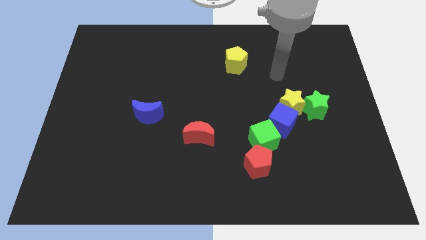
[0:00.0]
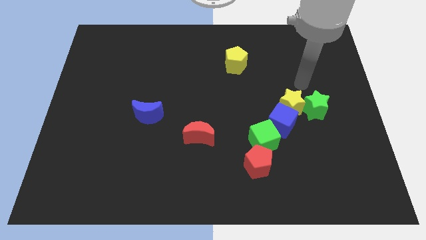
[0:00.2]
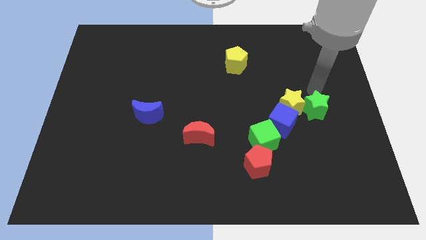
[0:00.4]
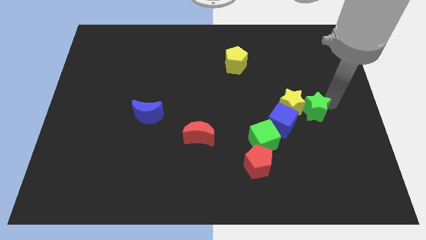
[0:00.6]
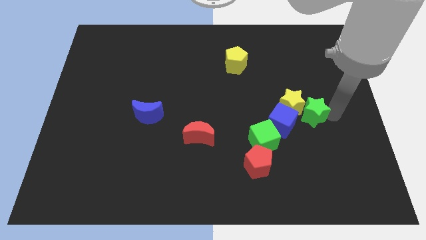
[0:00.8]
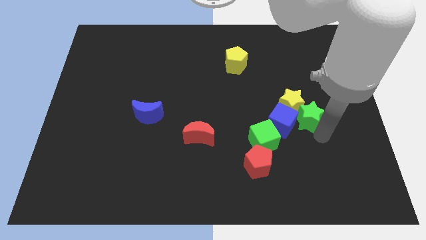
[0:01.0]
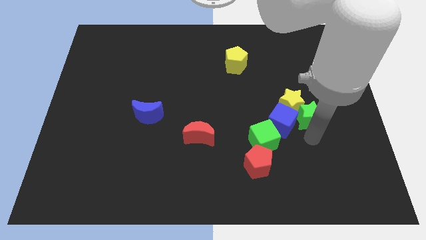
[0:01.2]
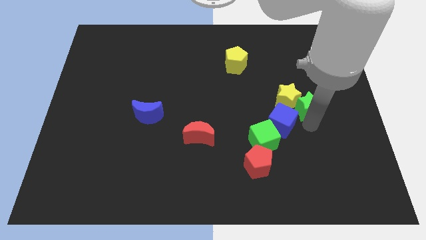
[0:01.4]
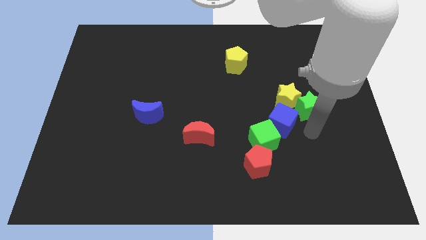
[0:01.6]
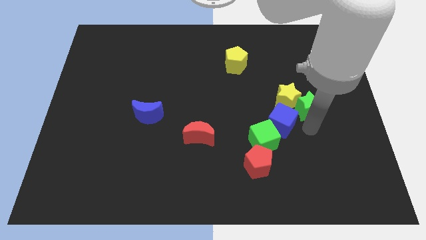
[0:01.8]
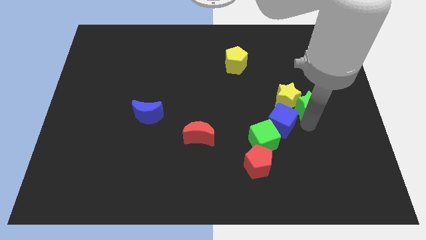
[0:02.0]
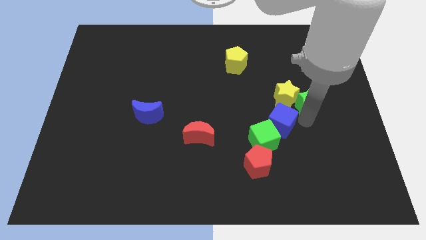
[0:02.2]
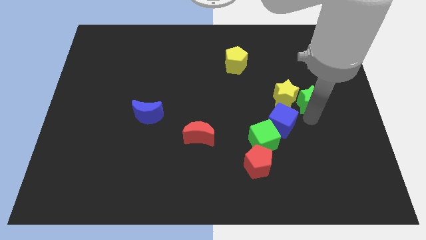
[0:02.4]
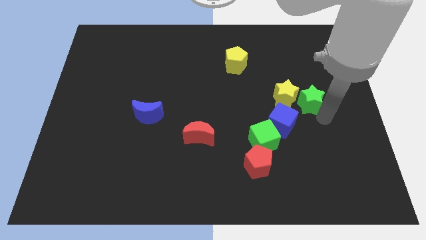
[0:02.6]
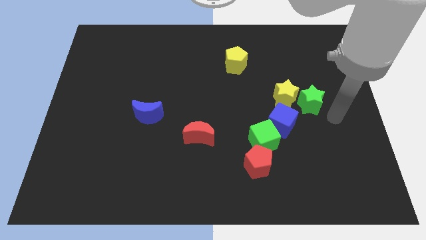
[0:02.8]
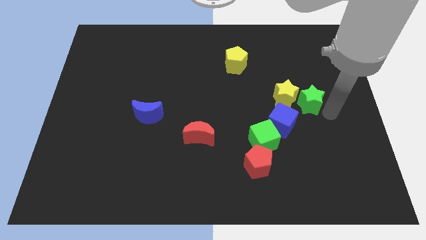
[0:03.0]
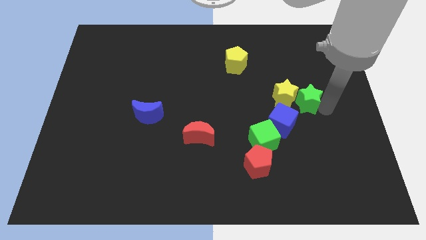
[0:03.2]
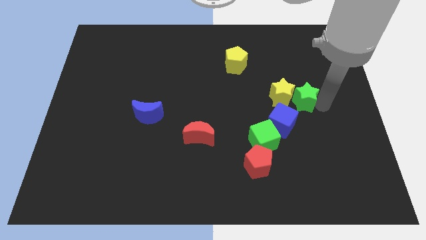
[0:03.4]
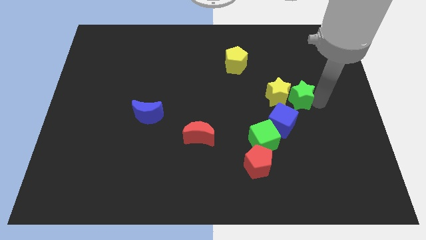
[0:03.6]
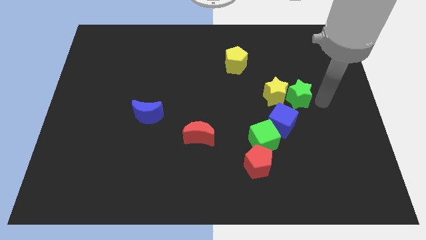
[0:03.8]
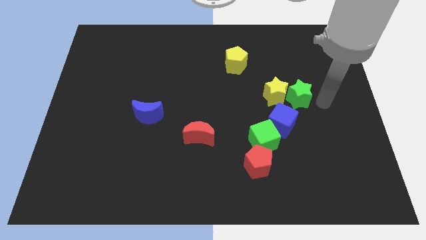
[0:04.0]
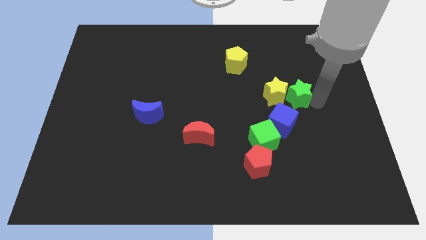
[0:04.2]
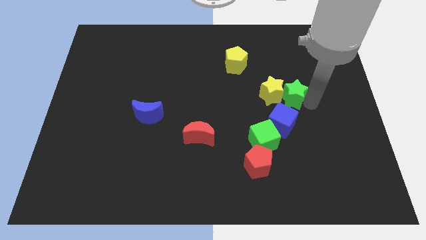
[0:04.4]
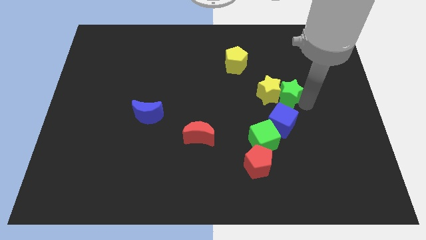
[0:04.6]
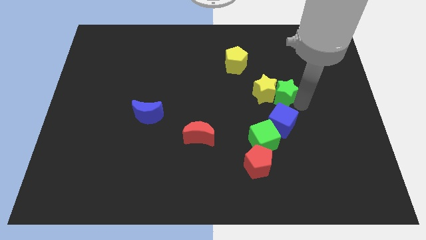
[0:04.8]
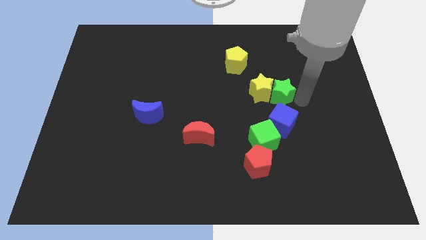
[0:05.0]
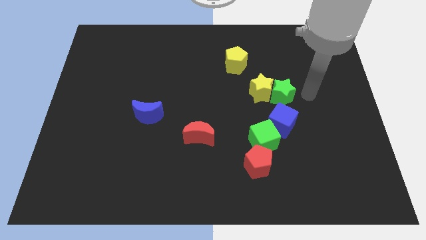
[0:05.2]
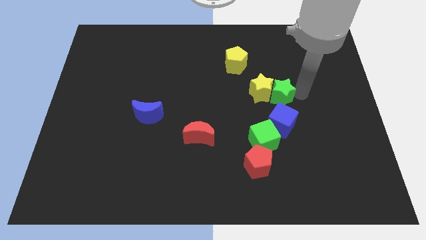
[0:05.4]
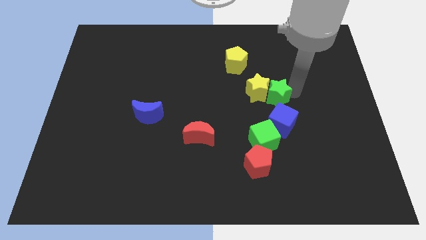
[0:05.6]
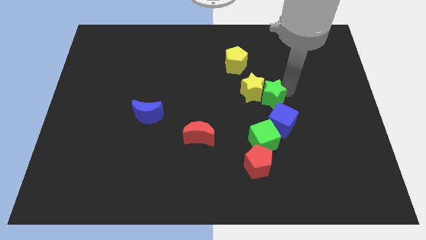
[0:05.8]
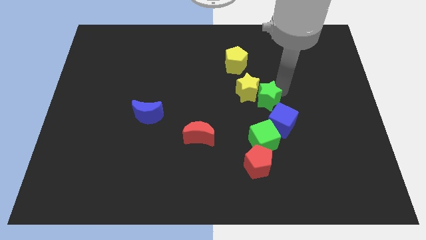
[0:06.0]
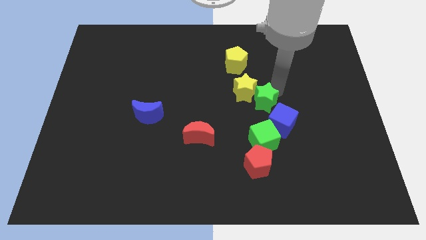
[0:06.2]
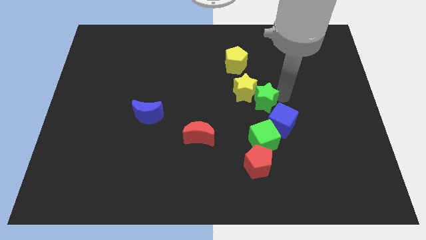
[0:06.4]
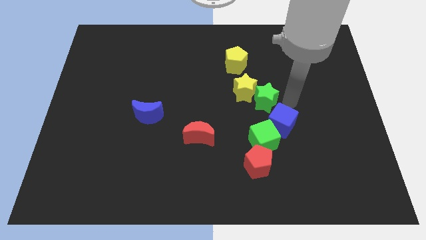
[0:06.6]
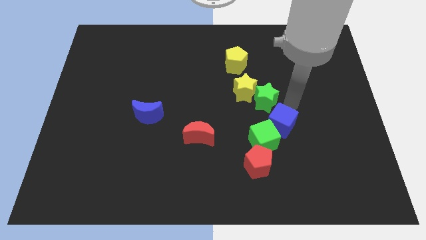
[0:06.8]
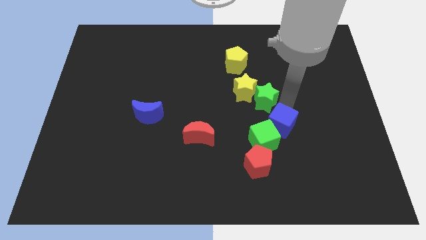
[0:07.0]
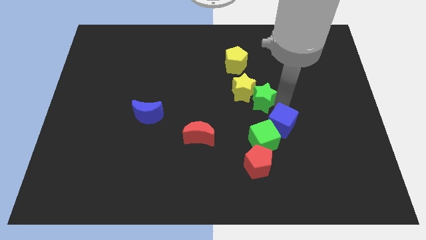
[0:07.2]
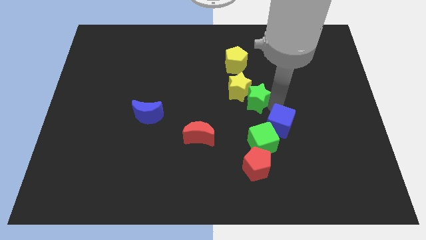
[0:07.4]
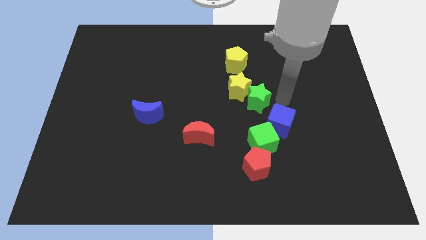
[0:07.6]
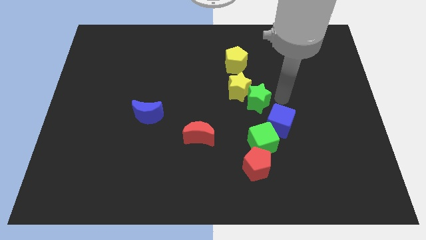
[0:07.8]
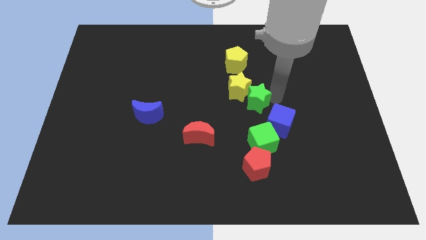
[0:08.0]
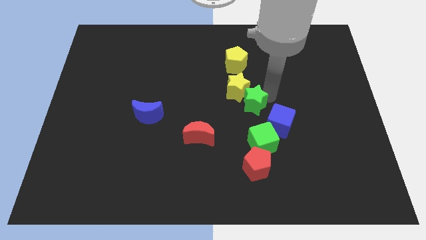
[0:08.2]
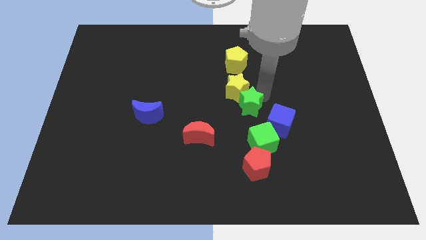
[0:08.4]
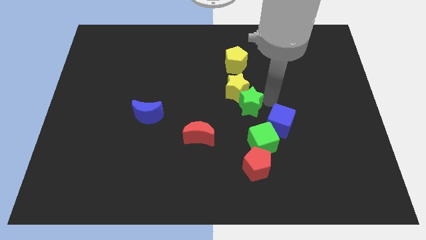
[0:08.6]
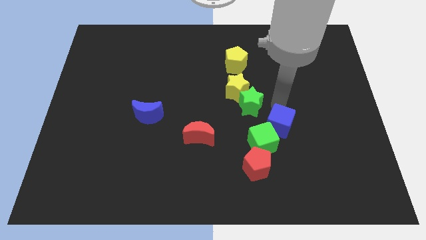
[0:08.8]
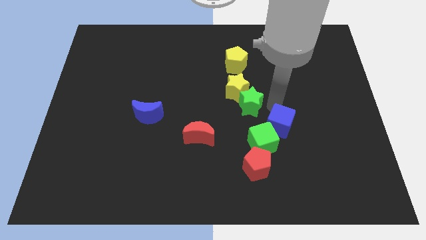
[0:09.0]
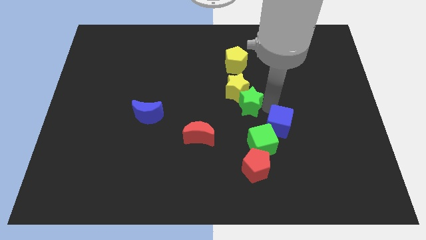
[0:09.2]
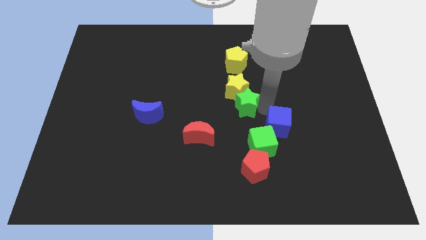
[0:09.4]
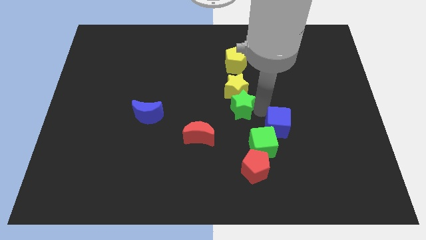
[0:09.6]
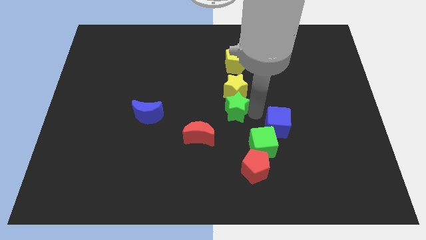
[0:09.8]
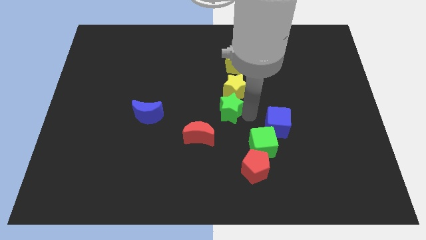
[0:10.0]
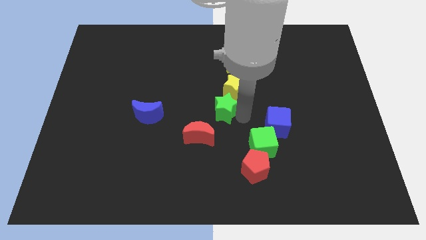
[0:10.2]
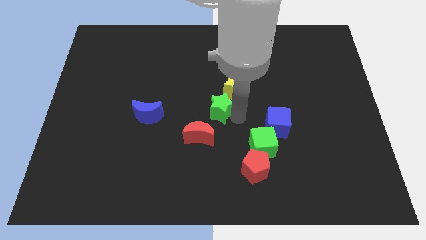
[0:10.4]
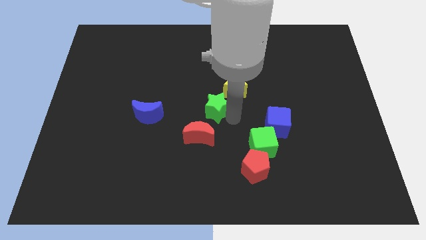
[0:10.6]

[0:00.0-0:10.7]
put the green star right of the blue moon

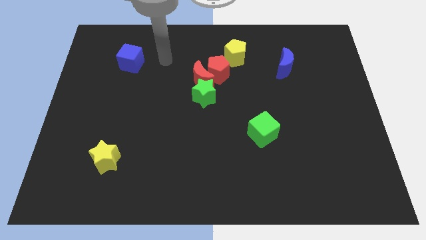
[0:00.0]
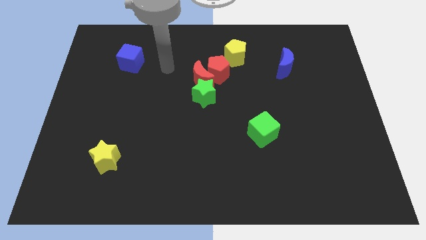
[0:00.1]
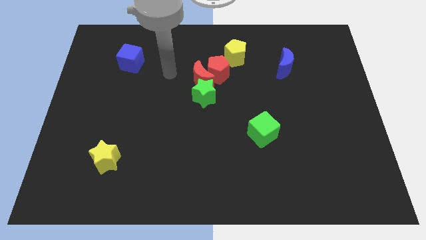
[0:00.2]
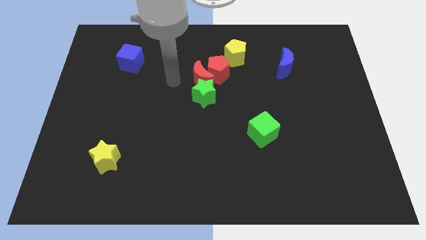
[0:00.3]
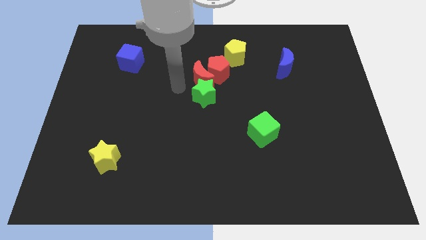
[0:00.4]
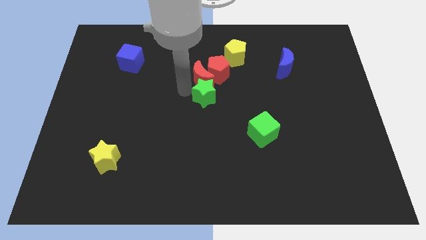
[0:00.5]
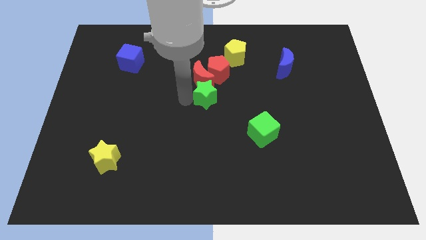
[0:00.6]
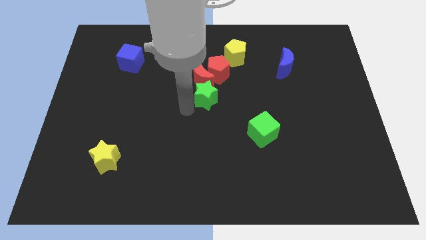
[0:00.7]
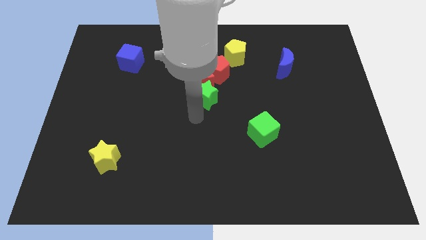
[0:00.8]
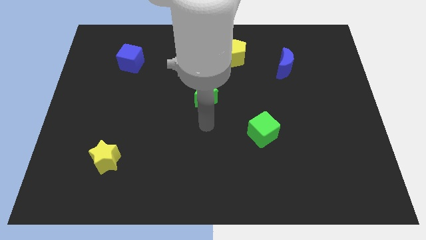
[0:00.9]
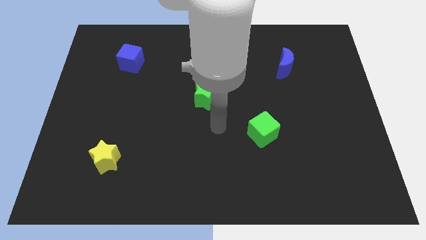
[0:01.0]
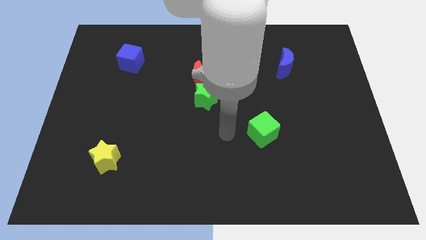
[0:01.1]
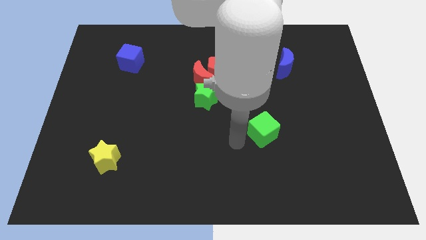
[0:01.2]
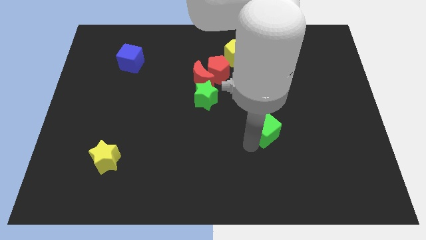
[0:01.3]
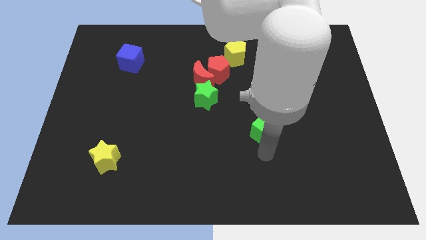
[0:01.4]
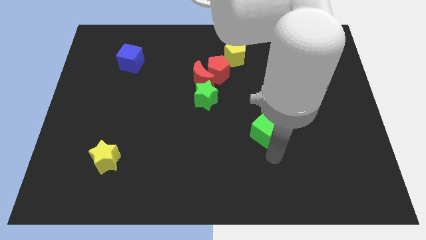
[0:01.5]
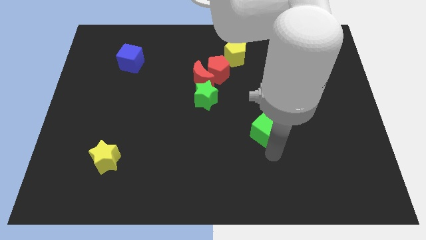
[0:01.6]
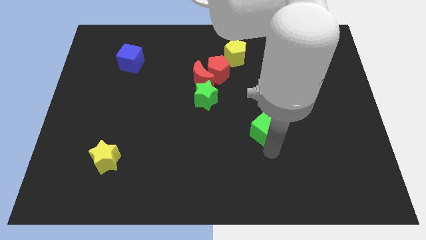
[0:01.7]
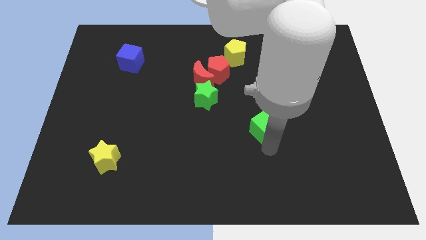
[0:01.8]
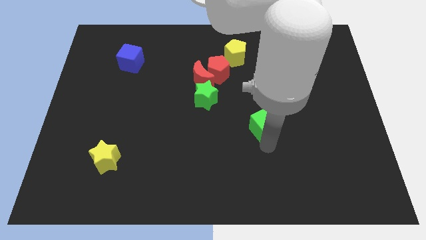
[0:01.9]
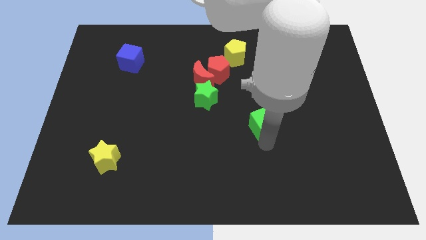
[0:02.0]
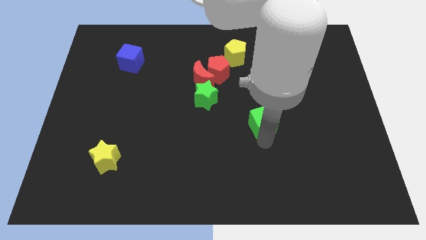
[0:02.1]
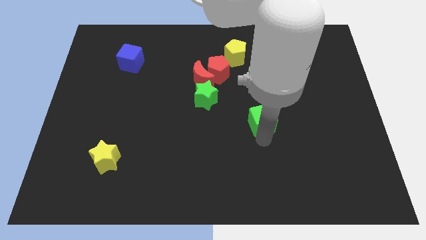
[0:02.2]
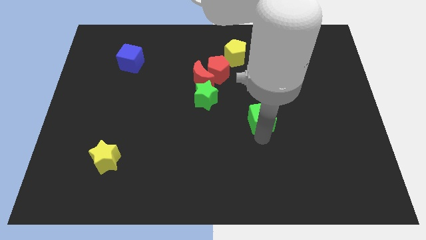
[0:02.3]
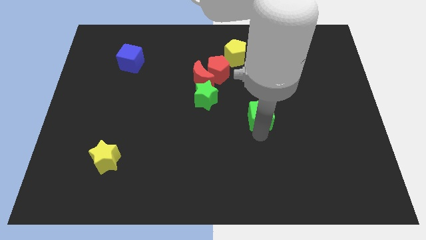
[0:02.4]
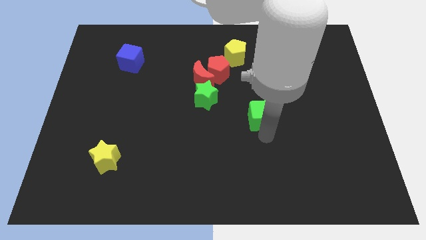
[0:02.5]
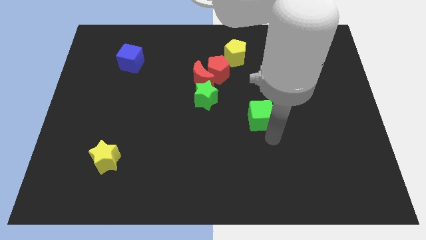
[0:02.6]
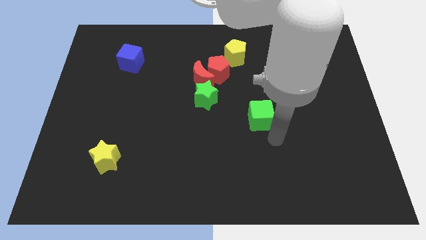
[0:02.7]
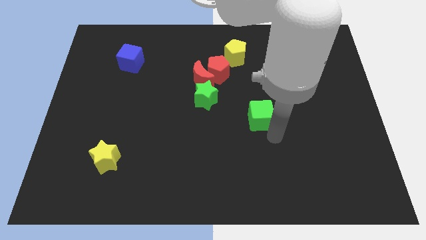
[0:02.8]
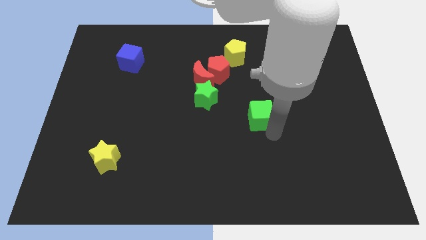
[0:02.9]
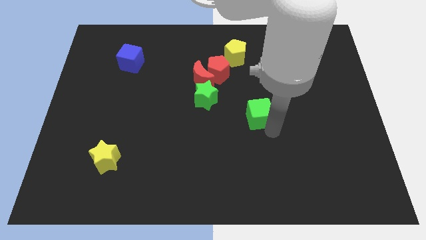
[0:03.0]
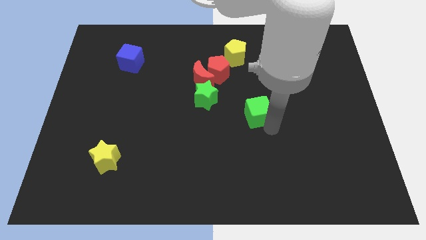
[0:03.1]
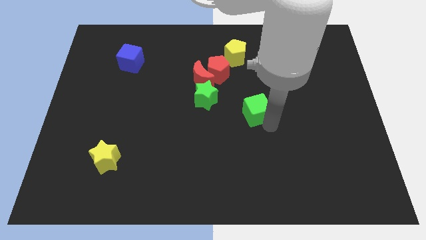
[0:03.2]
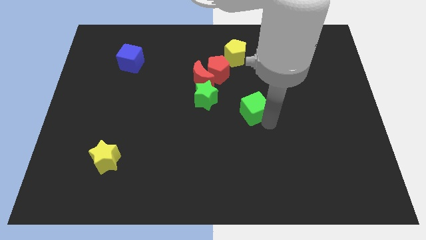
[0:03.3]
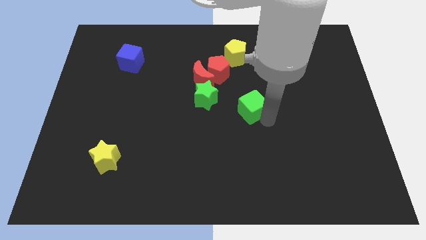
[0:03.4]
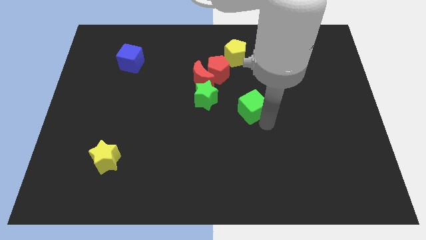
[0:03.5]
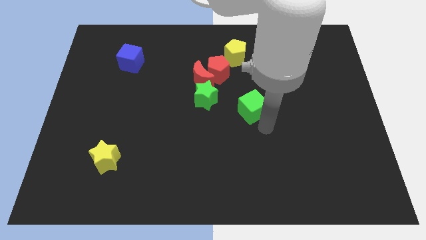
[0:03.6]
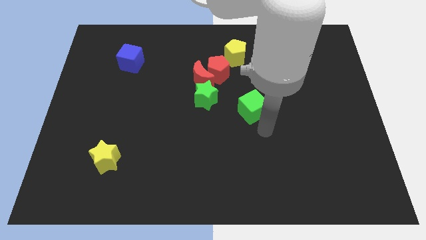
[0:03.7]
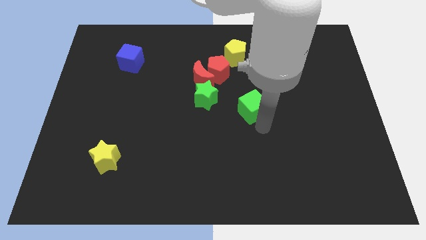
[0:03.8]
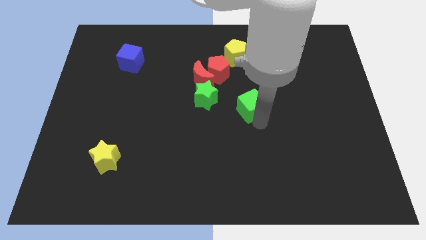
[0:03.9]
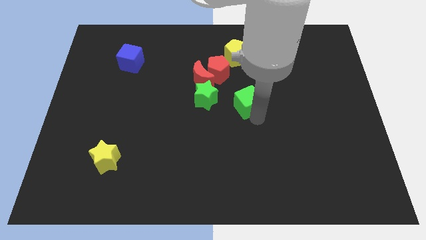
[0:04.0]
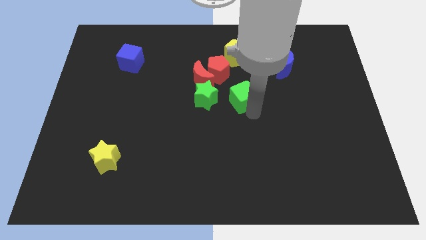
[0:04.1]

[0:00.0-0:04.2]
move the green cube to the bottom of the yellow pentagon
